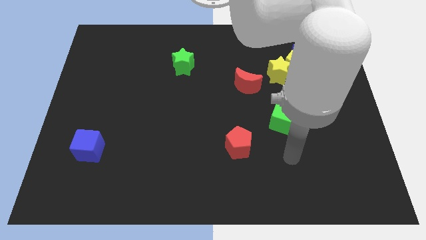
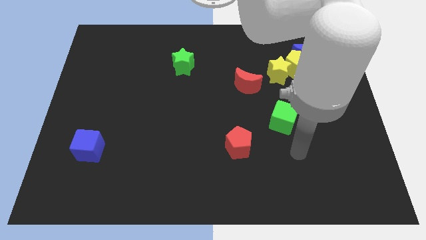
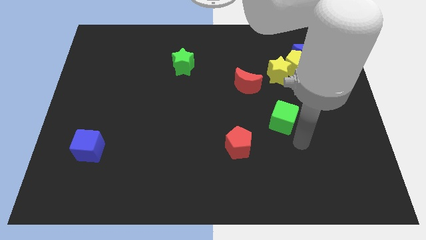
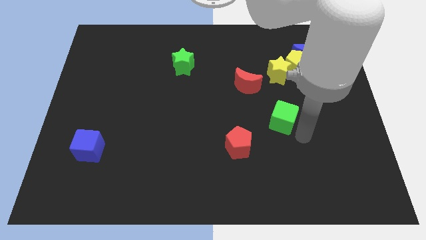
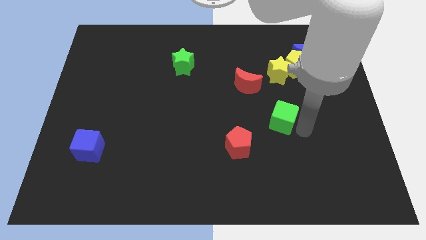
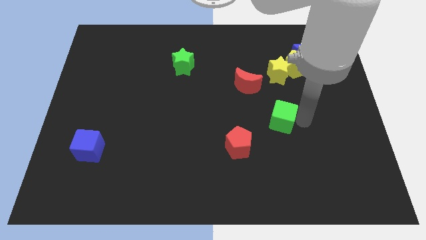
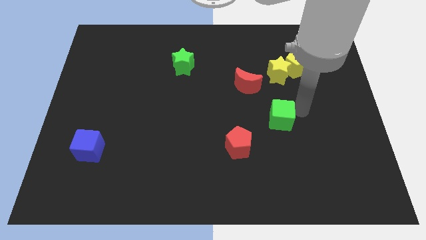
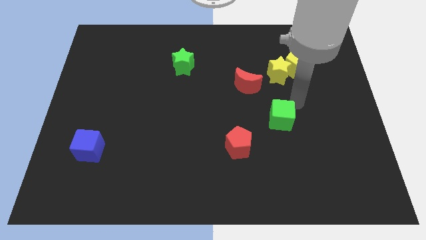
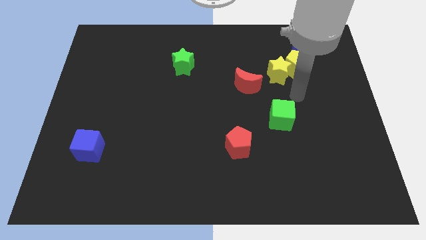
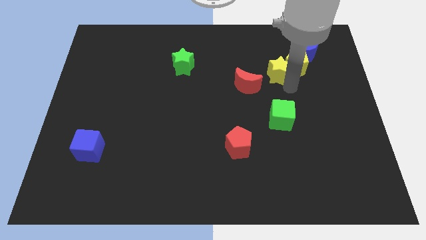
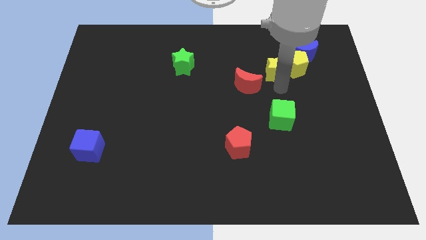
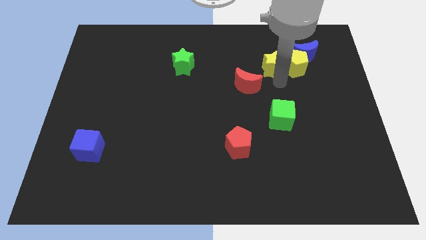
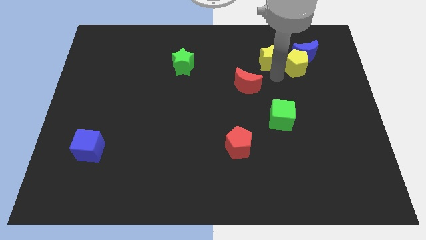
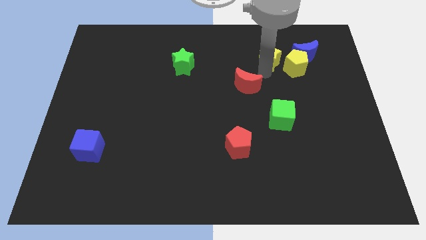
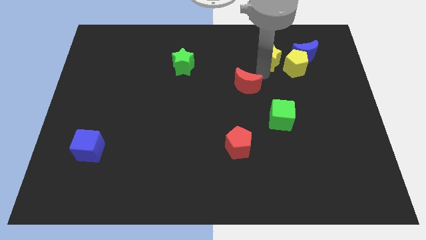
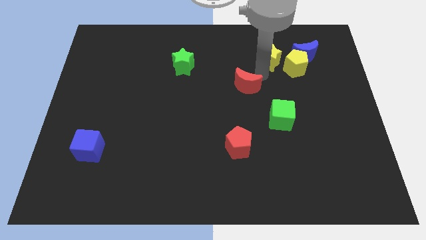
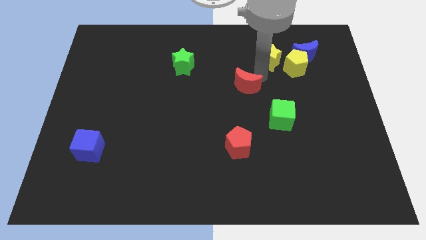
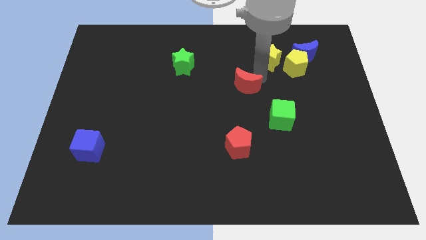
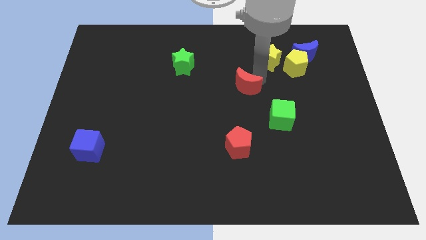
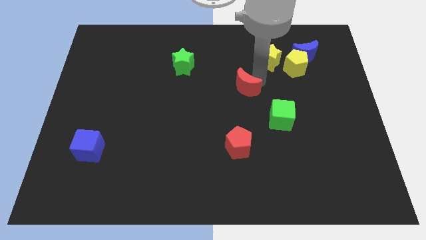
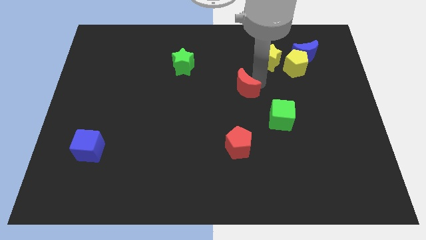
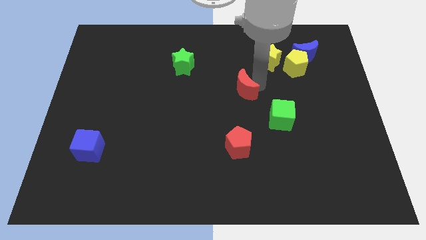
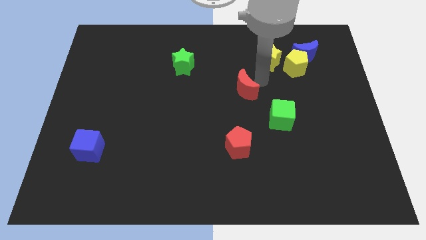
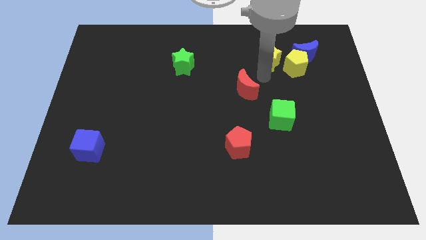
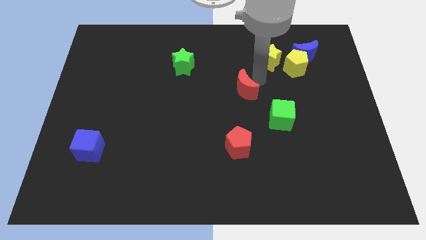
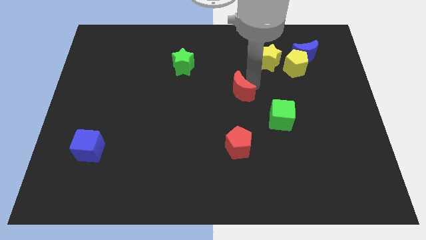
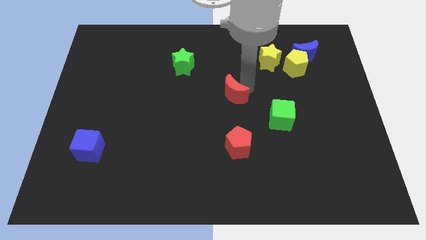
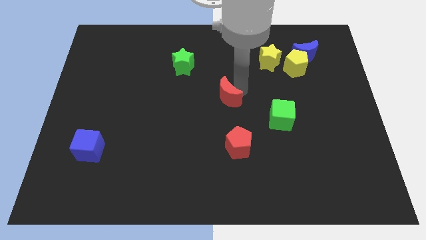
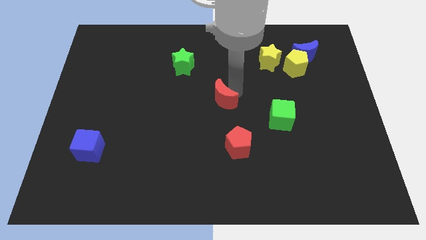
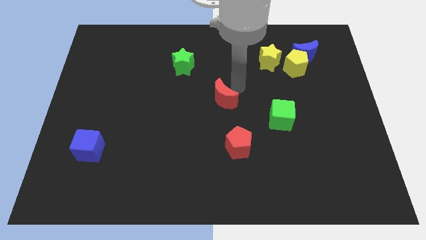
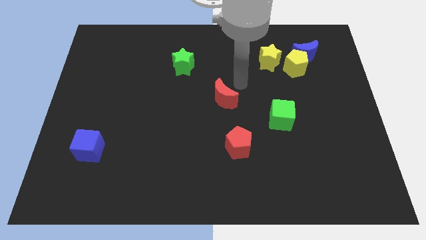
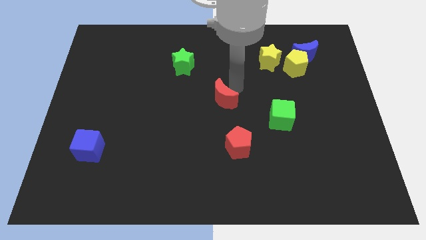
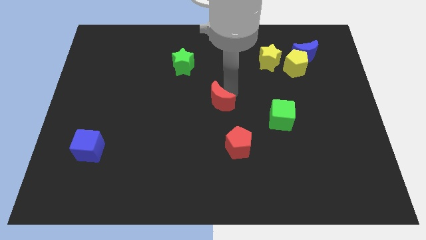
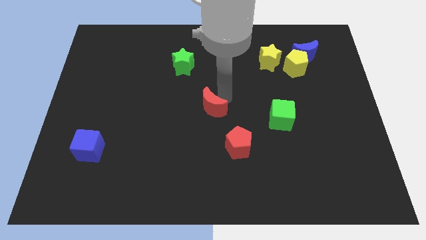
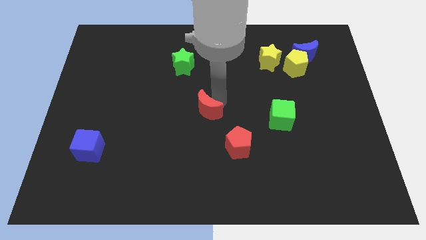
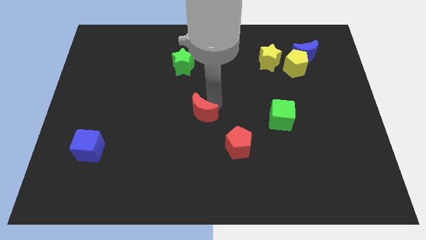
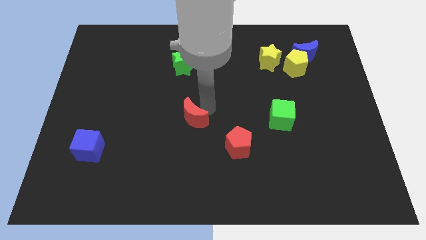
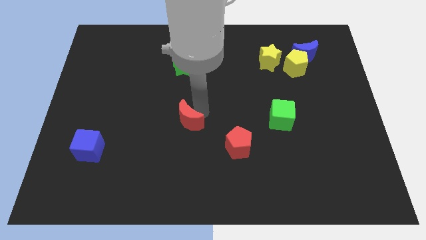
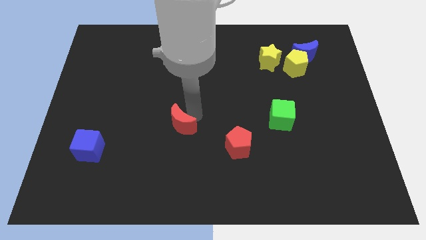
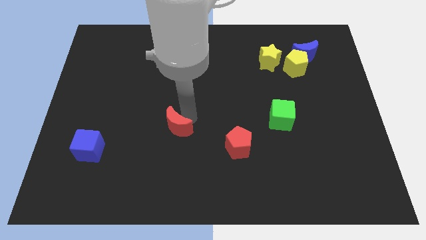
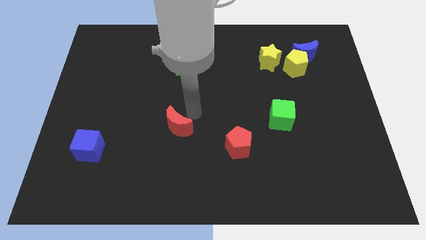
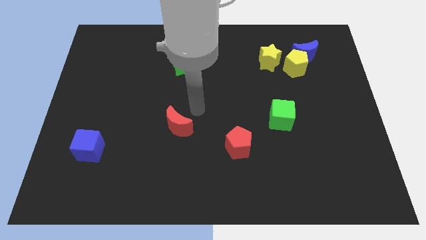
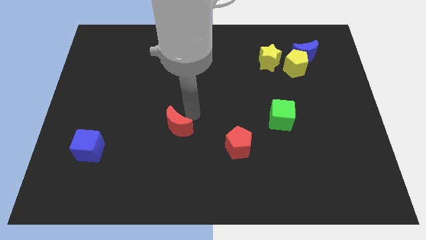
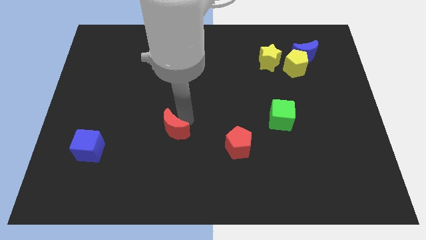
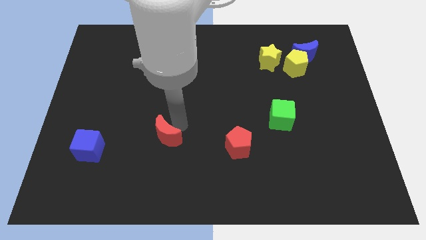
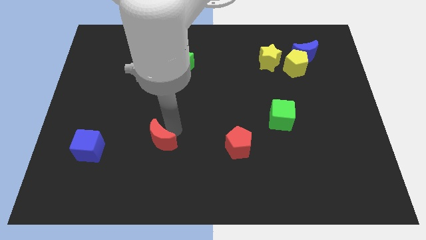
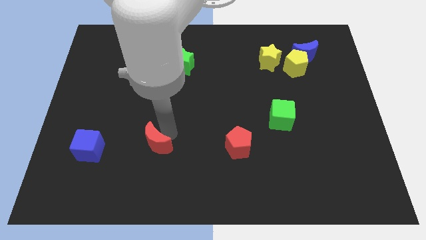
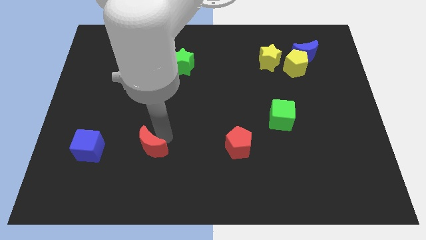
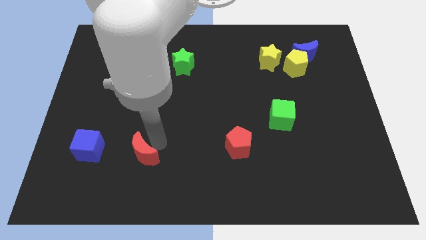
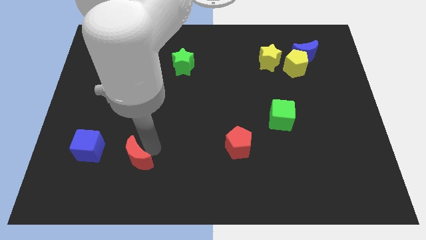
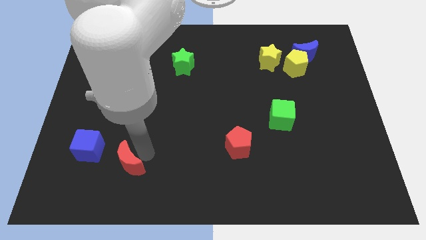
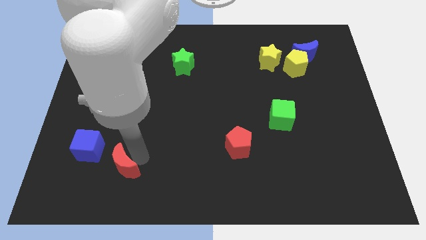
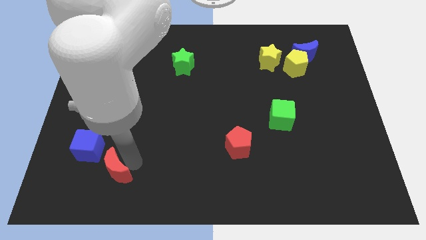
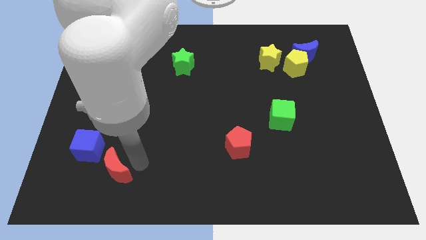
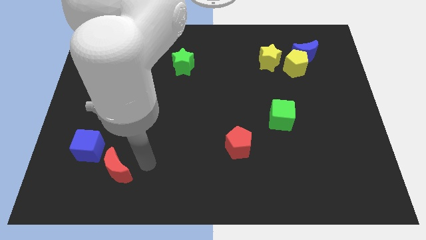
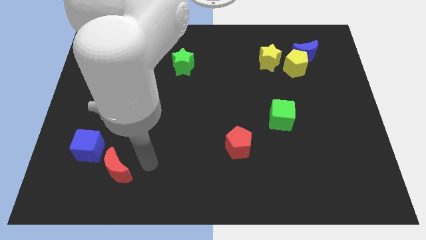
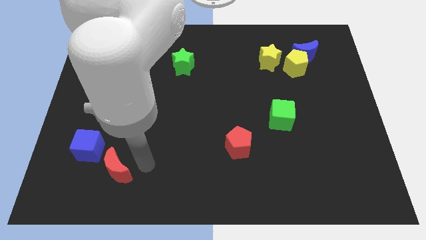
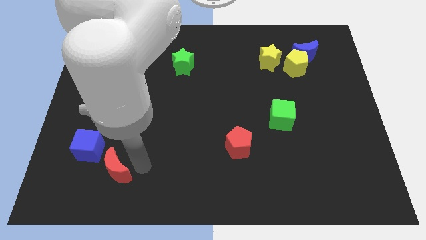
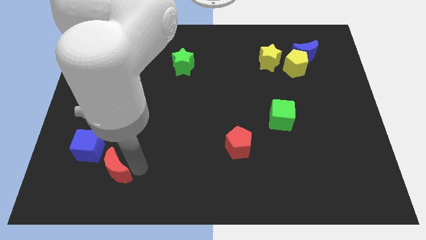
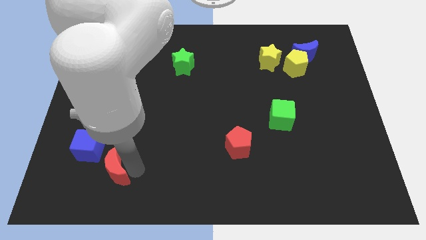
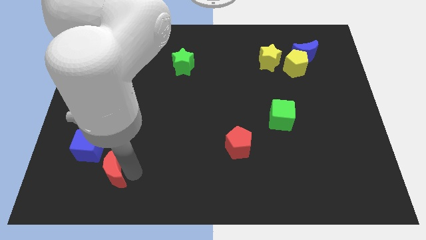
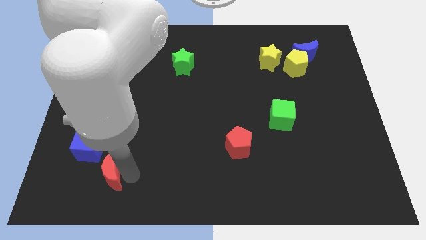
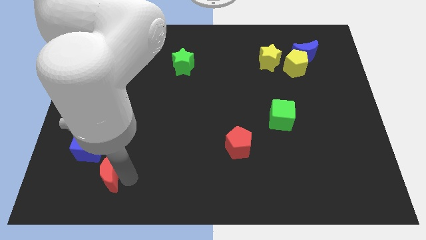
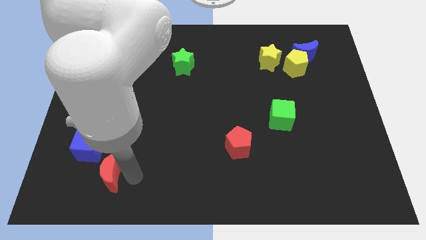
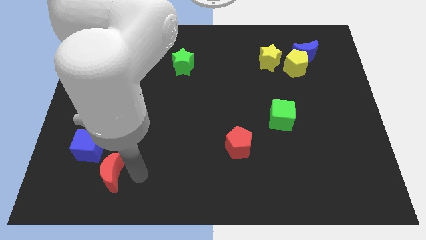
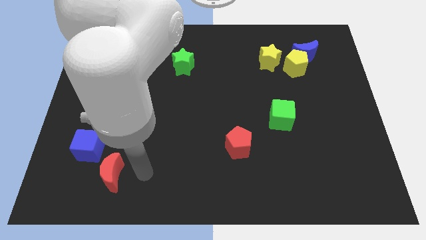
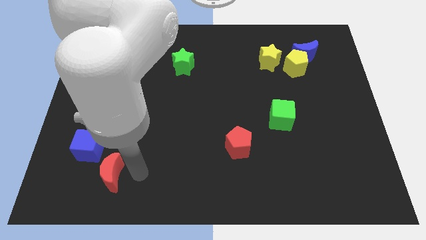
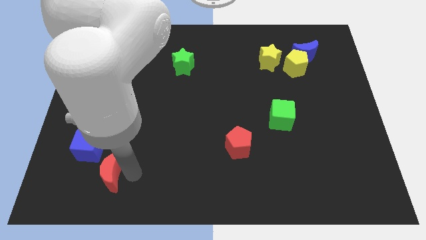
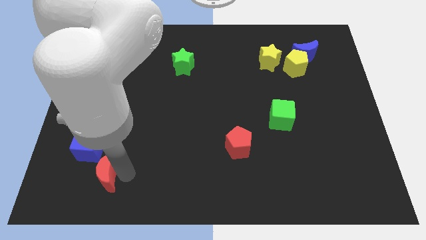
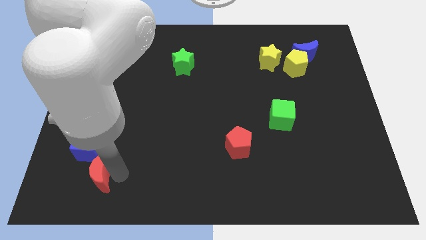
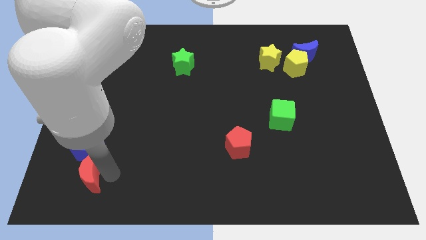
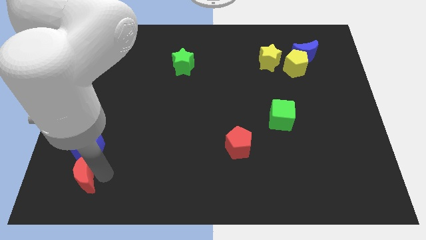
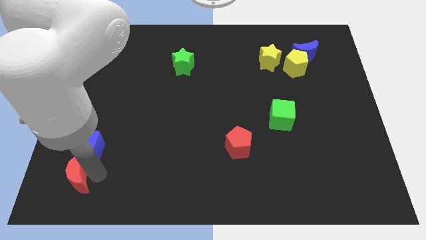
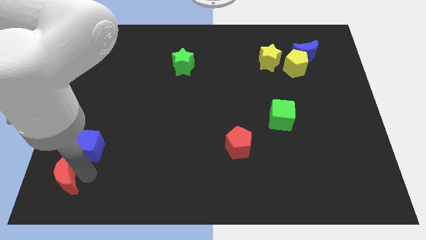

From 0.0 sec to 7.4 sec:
put the red moon to the lower left corner

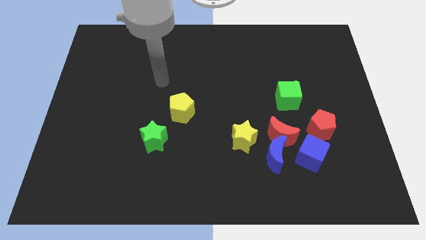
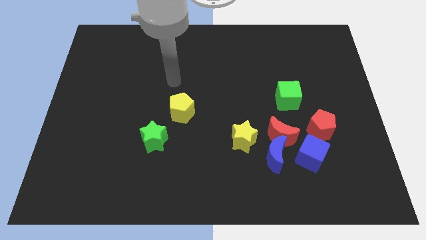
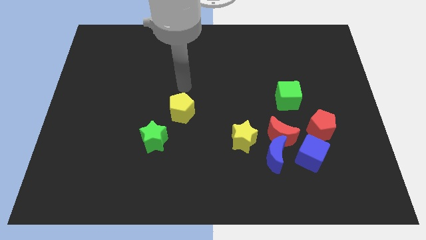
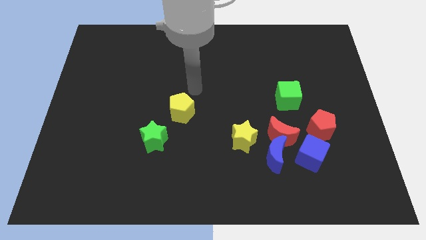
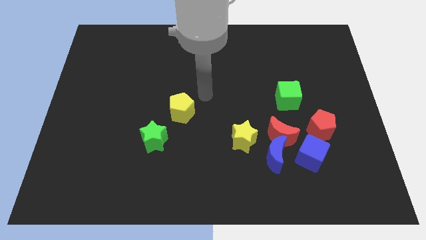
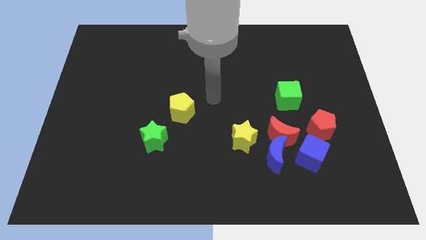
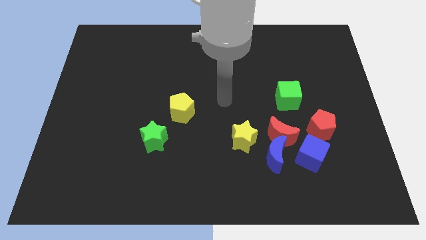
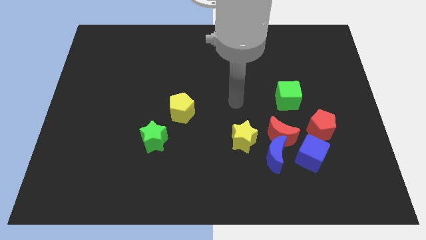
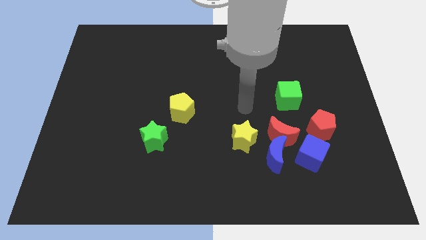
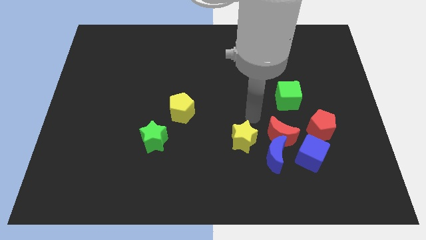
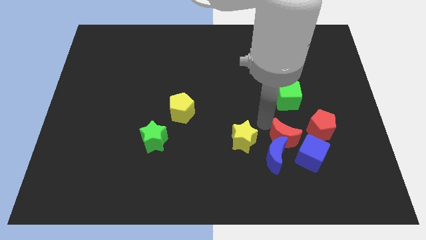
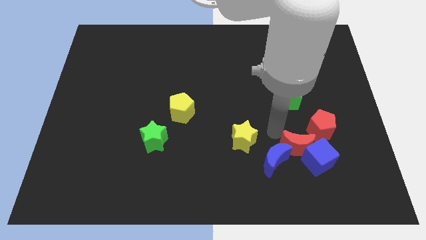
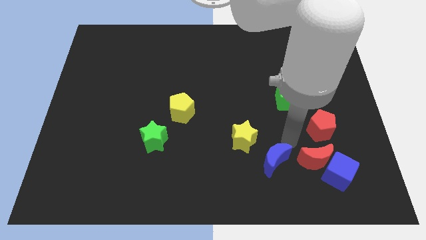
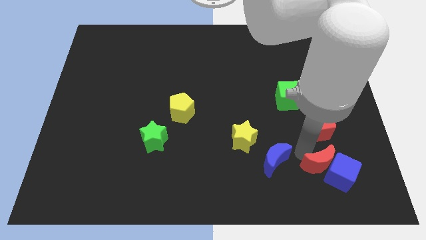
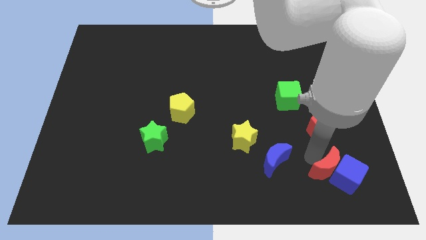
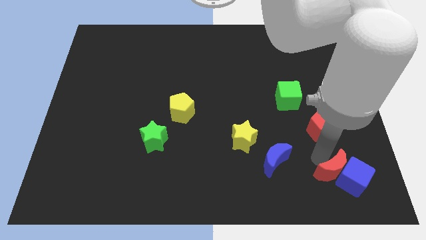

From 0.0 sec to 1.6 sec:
slide the blue cube to the lower right corner
